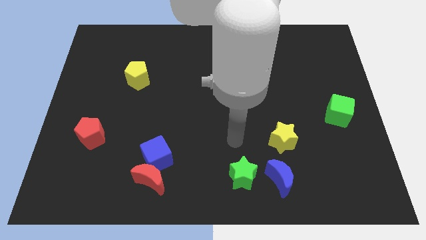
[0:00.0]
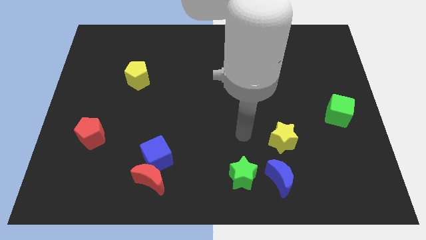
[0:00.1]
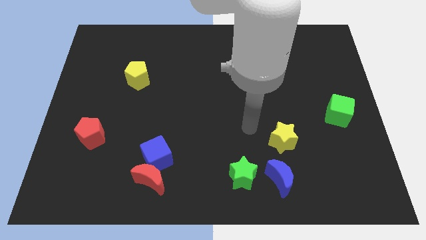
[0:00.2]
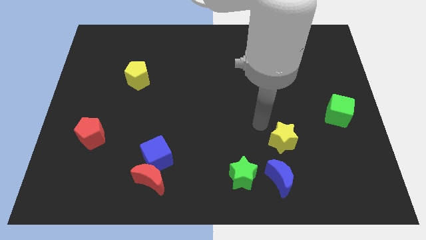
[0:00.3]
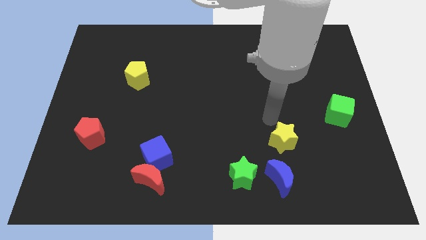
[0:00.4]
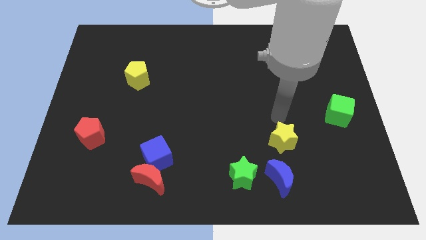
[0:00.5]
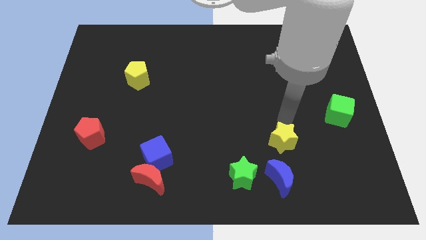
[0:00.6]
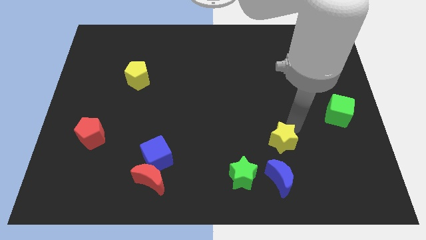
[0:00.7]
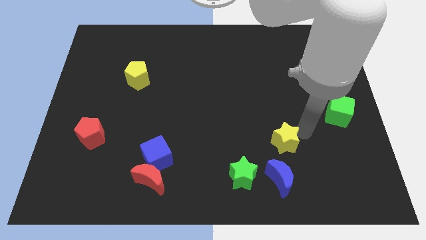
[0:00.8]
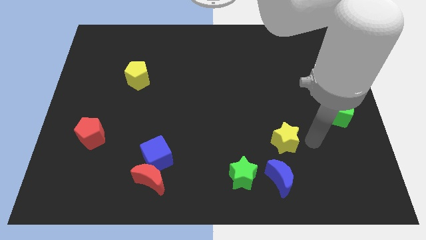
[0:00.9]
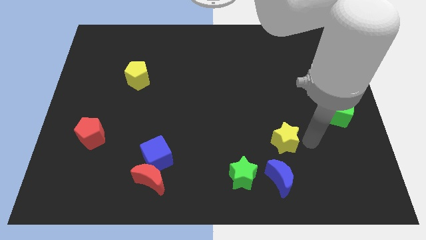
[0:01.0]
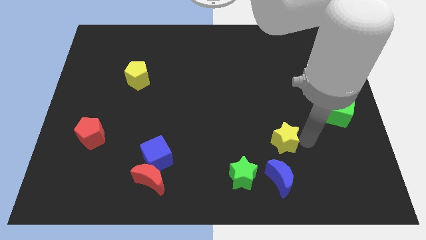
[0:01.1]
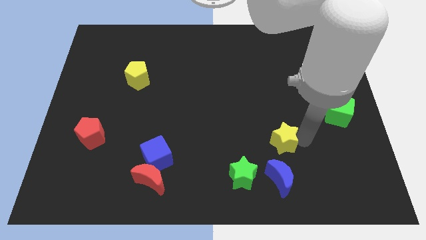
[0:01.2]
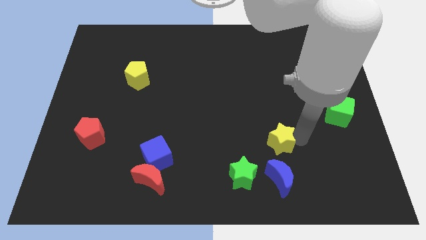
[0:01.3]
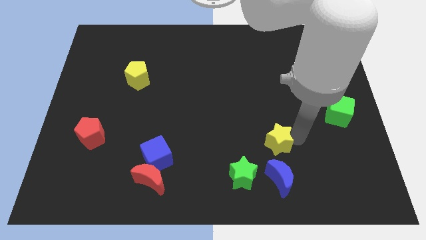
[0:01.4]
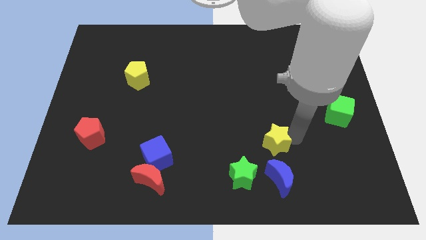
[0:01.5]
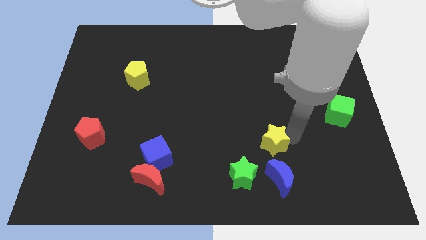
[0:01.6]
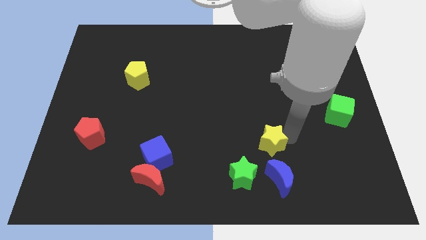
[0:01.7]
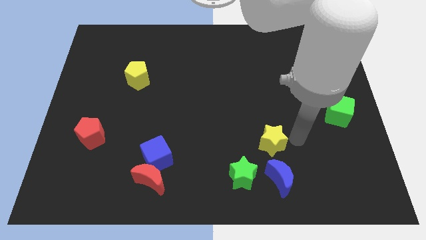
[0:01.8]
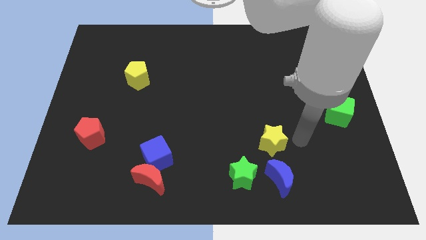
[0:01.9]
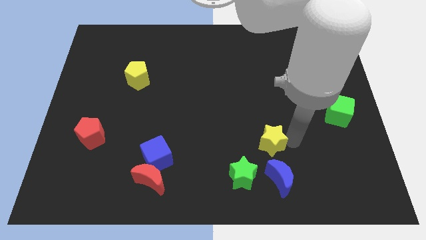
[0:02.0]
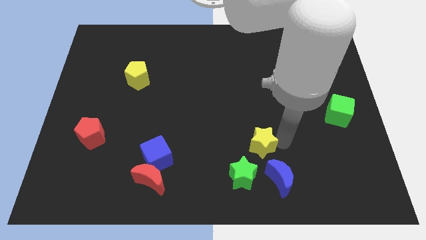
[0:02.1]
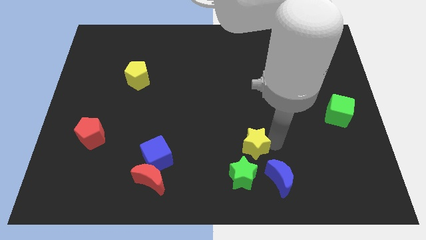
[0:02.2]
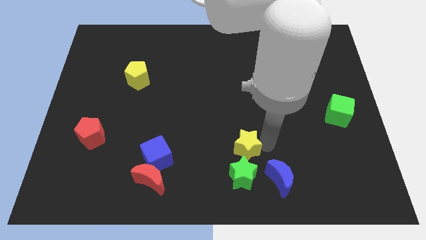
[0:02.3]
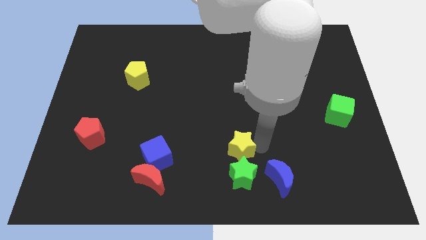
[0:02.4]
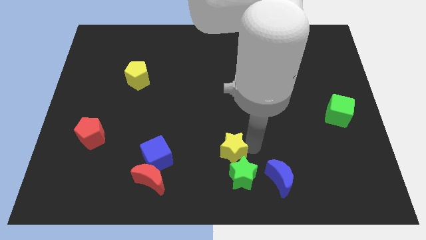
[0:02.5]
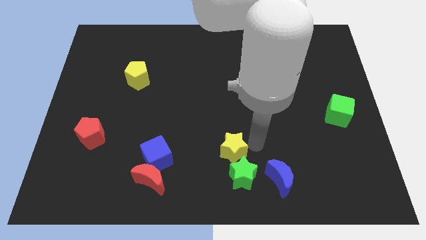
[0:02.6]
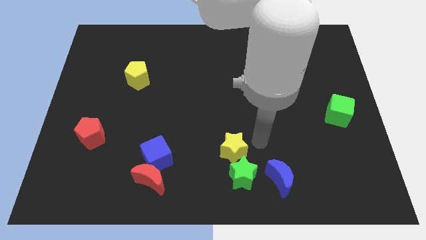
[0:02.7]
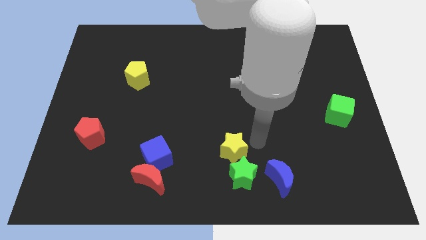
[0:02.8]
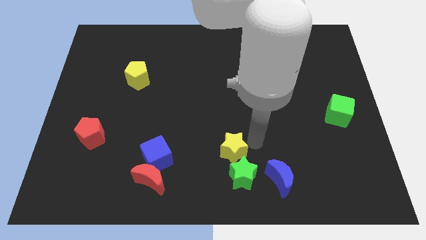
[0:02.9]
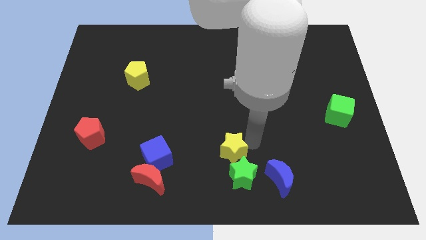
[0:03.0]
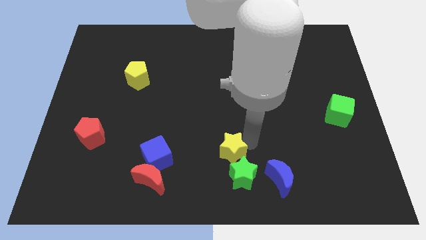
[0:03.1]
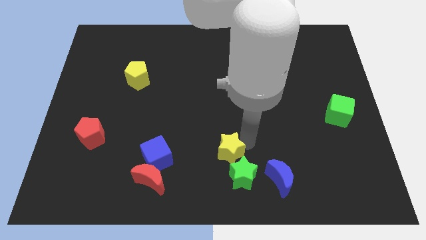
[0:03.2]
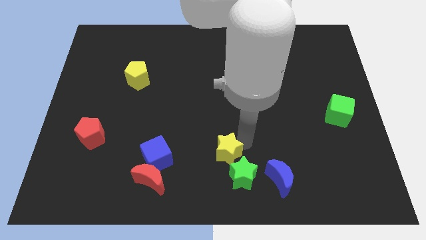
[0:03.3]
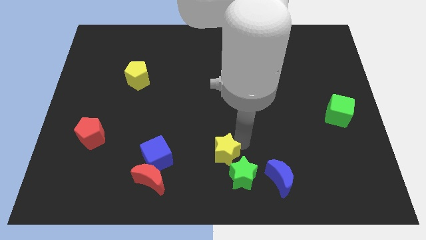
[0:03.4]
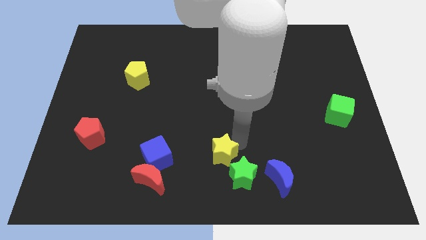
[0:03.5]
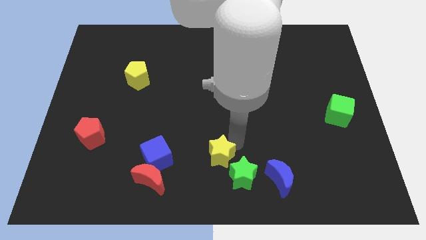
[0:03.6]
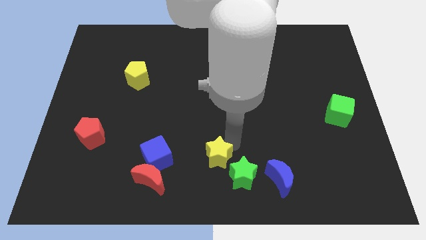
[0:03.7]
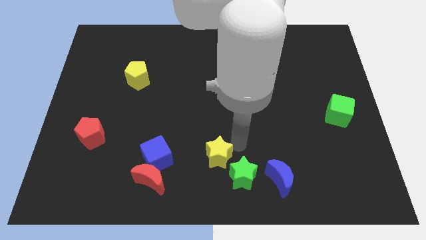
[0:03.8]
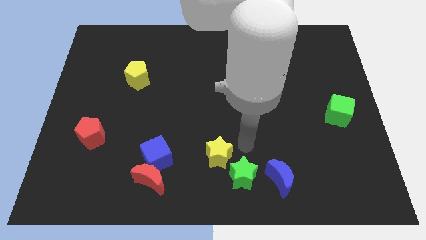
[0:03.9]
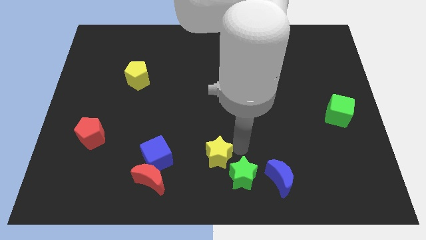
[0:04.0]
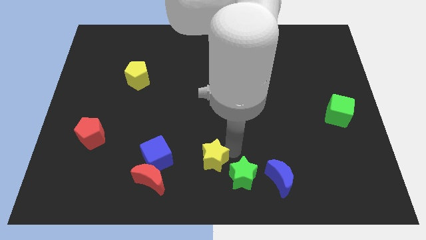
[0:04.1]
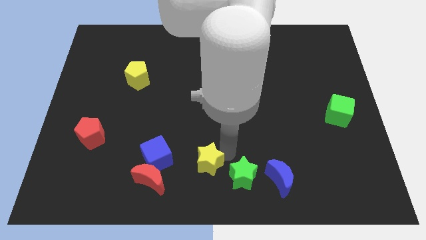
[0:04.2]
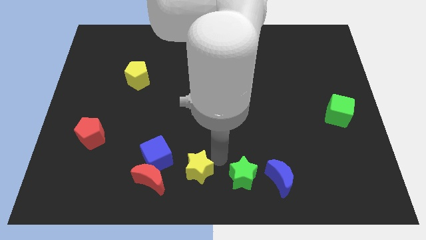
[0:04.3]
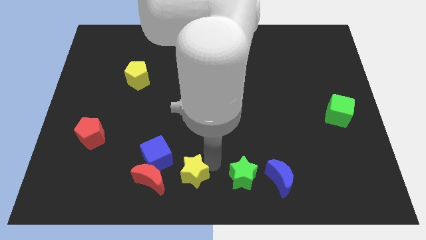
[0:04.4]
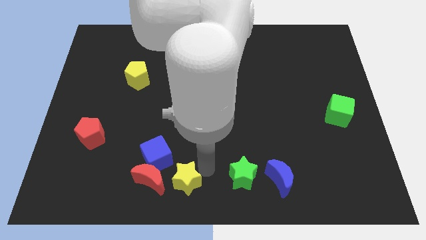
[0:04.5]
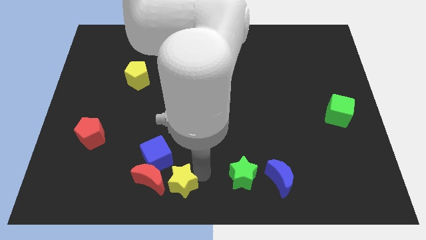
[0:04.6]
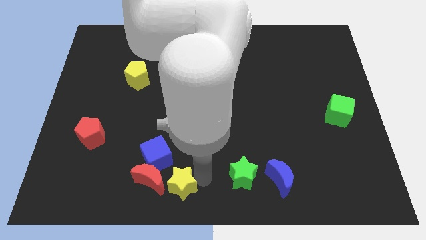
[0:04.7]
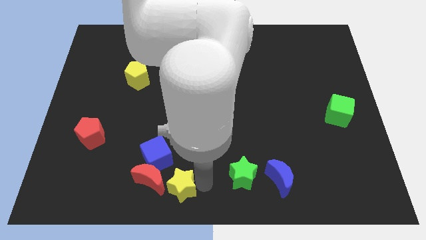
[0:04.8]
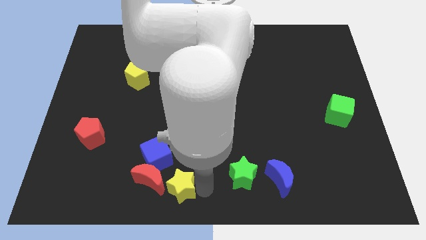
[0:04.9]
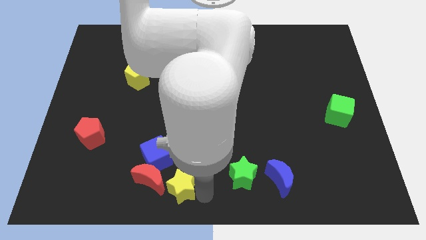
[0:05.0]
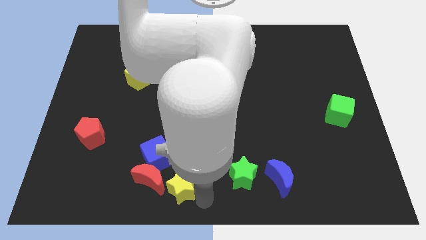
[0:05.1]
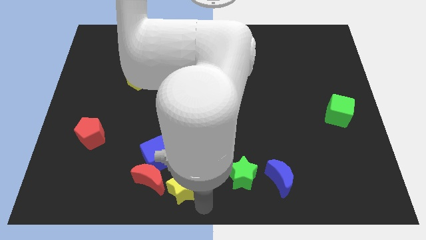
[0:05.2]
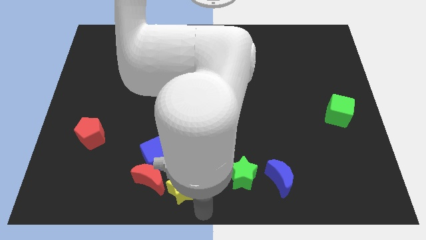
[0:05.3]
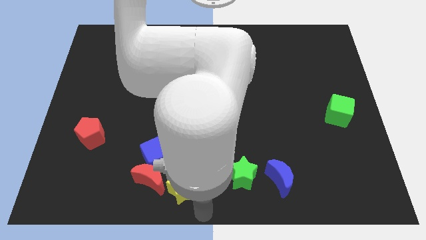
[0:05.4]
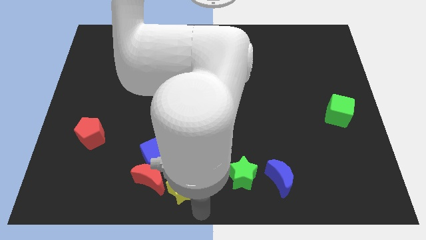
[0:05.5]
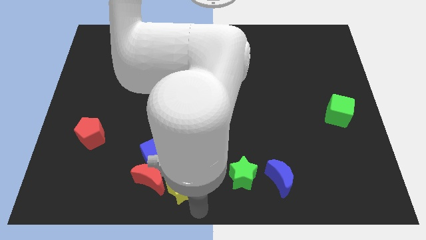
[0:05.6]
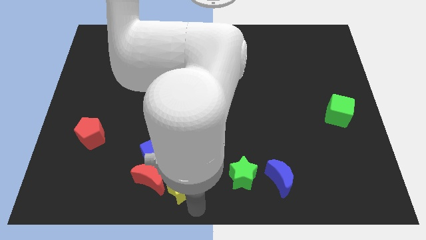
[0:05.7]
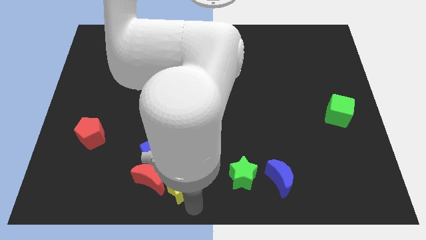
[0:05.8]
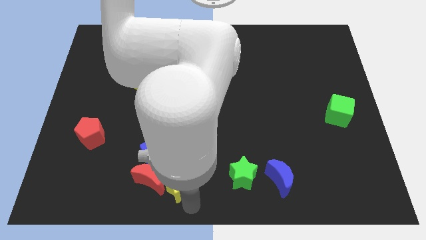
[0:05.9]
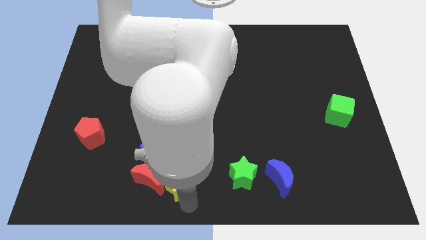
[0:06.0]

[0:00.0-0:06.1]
push the yellow star next to the red moon
